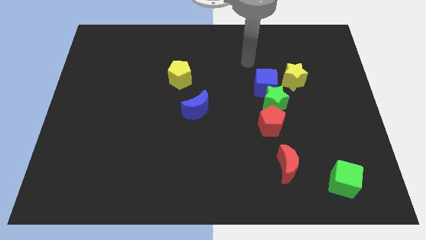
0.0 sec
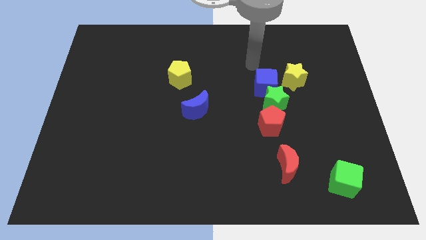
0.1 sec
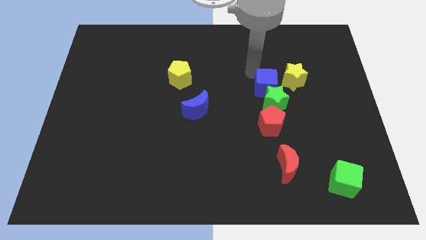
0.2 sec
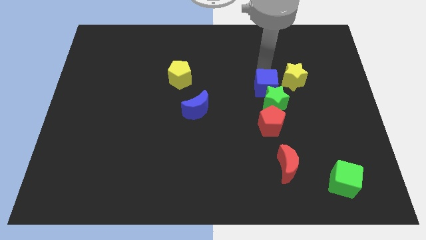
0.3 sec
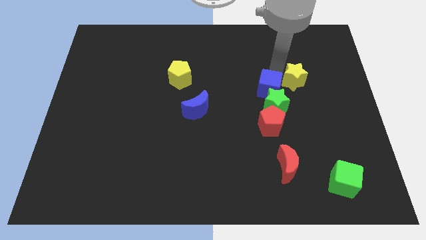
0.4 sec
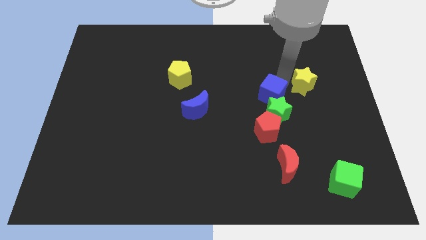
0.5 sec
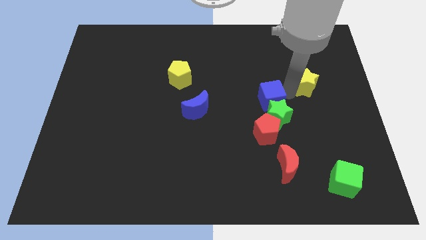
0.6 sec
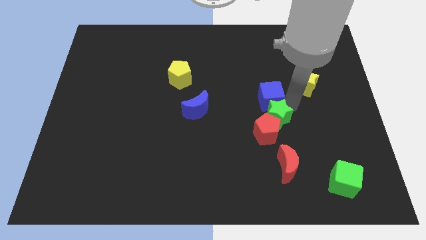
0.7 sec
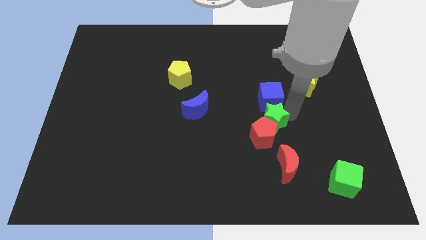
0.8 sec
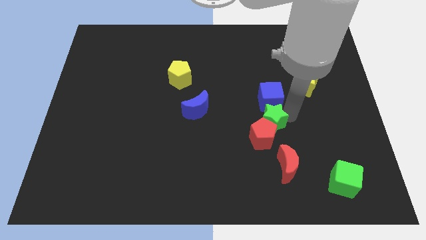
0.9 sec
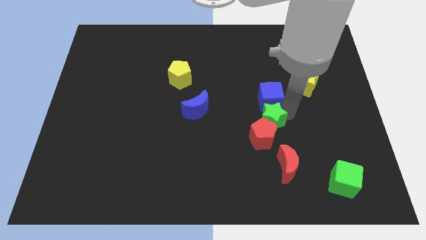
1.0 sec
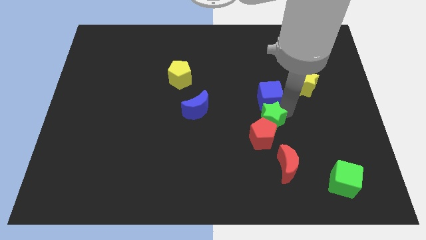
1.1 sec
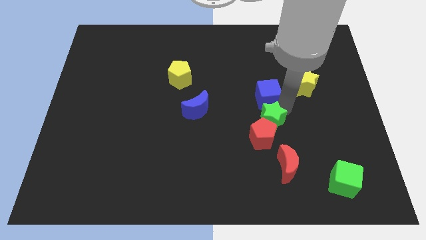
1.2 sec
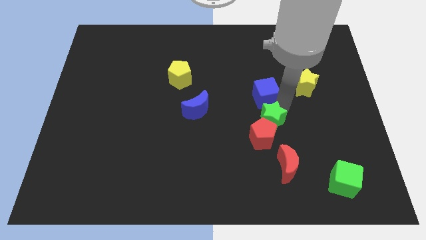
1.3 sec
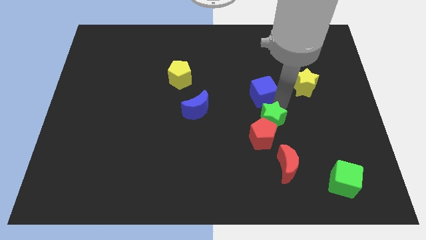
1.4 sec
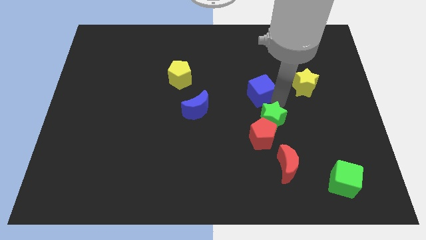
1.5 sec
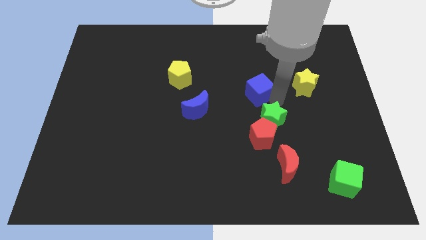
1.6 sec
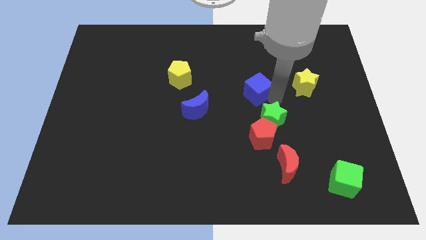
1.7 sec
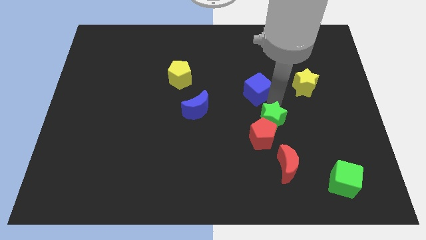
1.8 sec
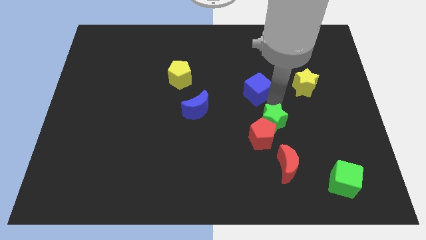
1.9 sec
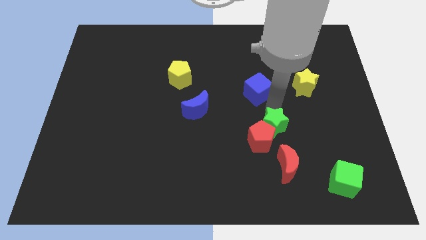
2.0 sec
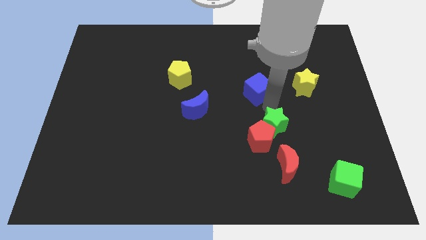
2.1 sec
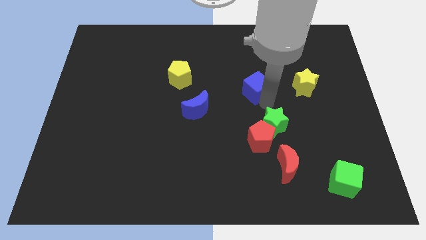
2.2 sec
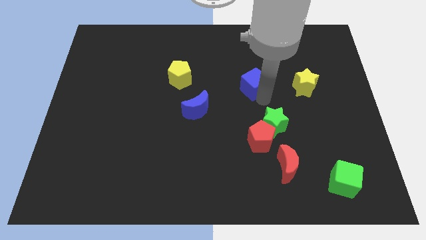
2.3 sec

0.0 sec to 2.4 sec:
move the blue cube away from the green star and yellow star

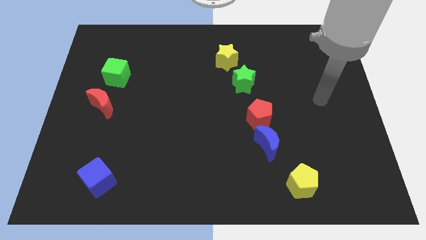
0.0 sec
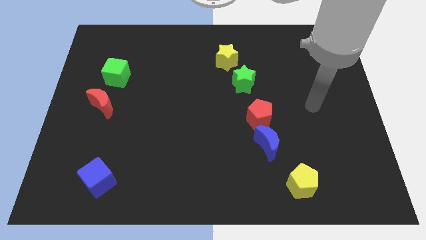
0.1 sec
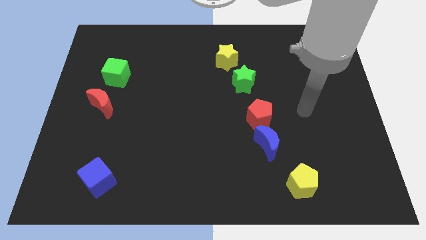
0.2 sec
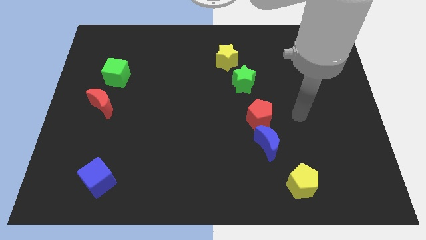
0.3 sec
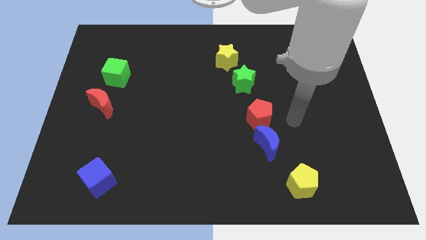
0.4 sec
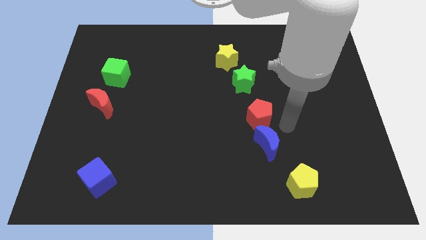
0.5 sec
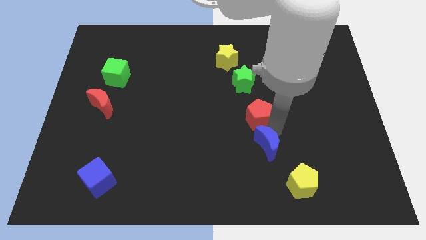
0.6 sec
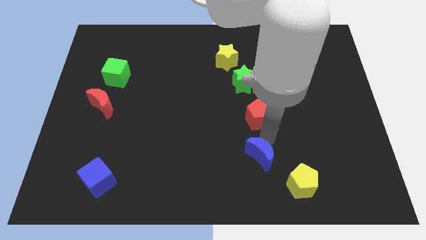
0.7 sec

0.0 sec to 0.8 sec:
move the red pentagon away from the blue moon

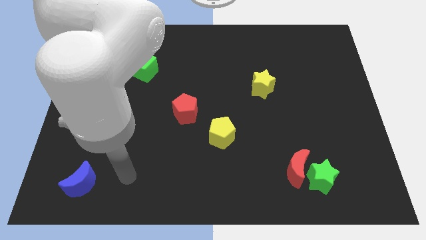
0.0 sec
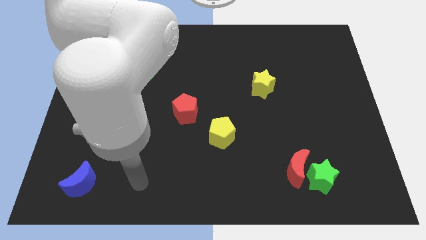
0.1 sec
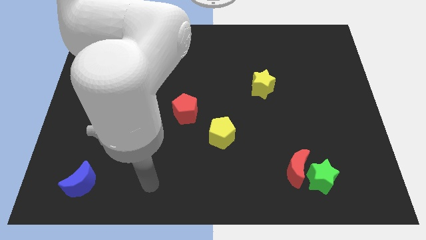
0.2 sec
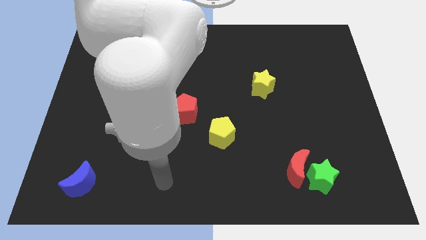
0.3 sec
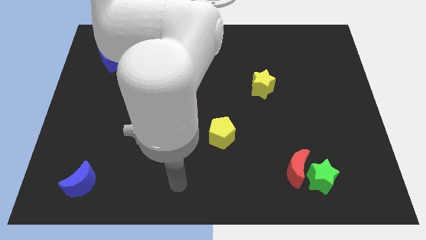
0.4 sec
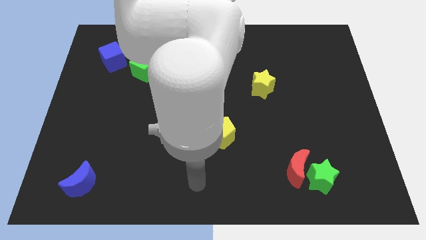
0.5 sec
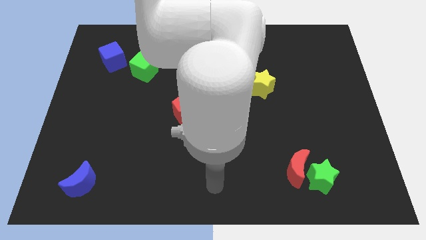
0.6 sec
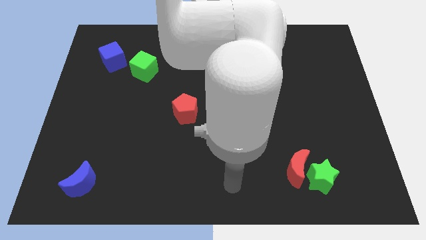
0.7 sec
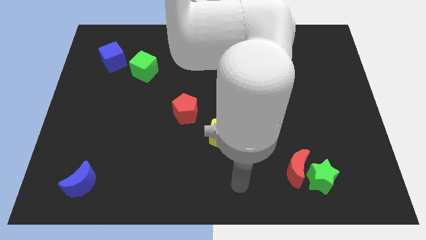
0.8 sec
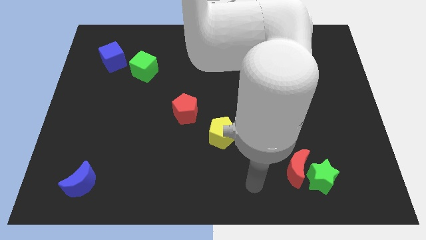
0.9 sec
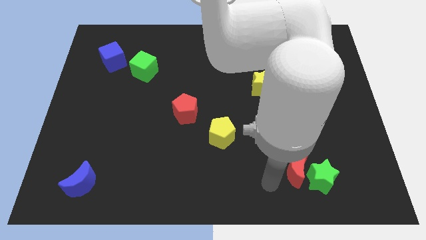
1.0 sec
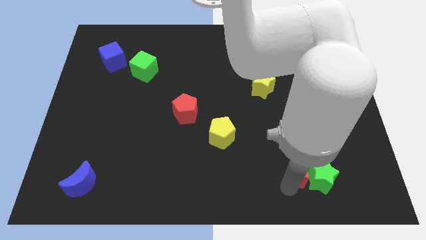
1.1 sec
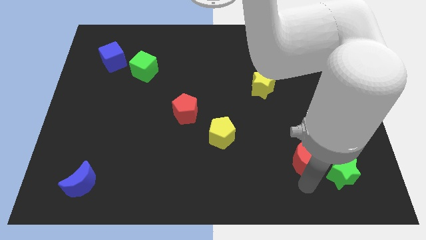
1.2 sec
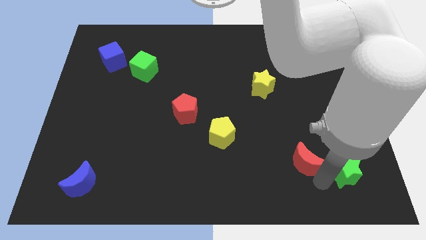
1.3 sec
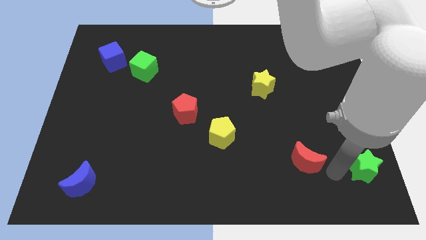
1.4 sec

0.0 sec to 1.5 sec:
move the red moon away from the green star

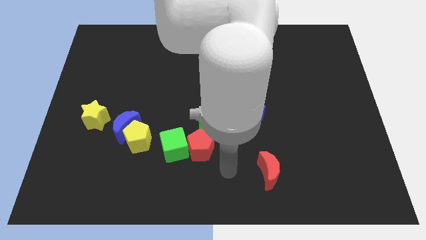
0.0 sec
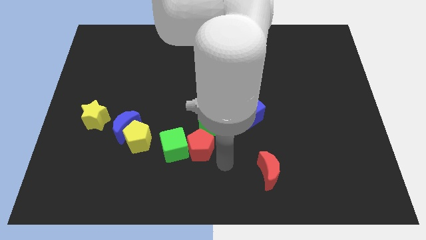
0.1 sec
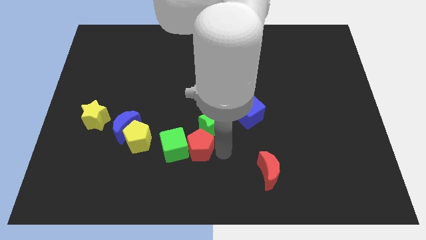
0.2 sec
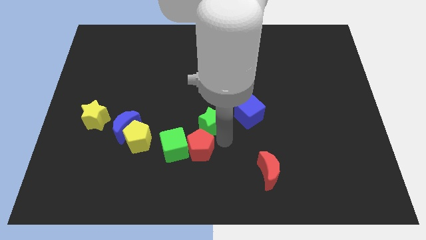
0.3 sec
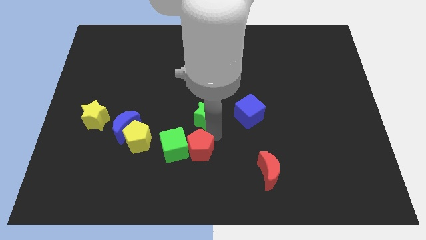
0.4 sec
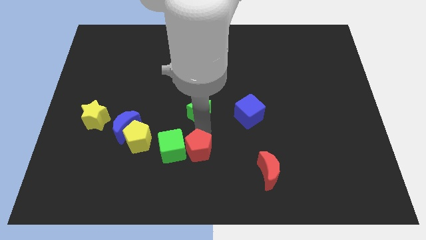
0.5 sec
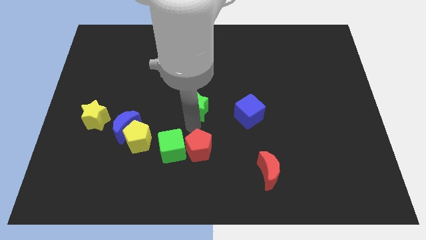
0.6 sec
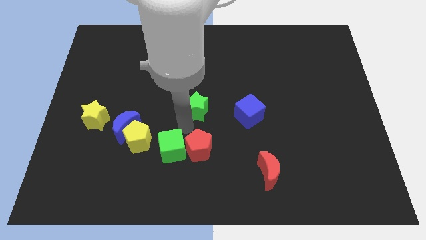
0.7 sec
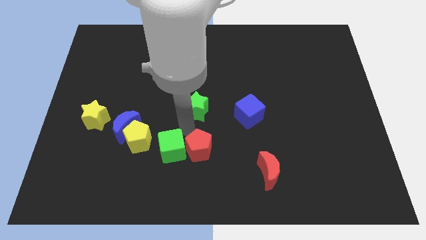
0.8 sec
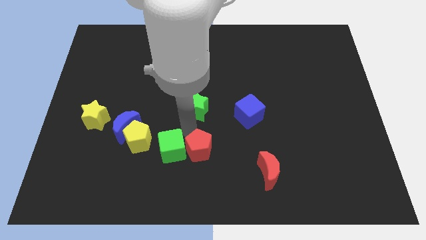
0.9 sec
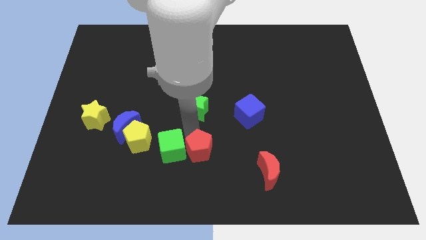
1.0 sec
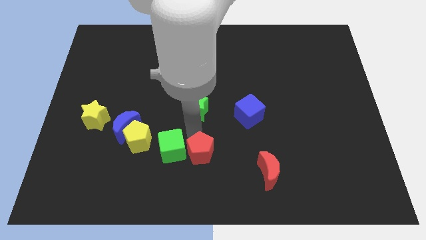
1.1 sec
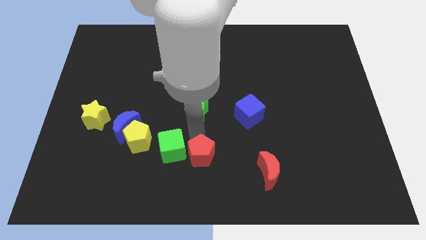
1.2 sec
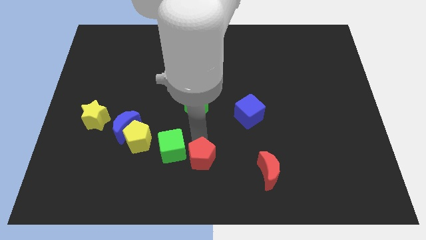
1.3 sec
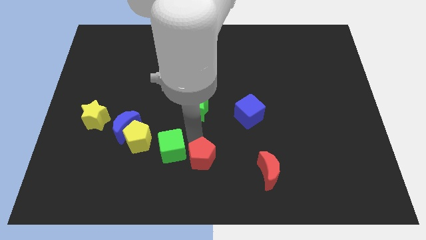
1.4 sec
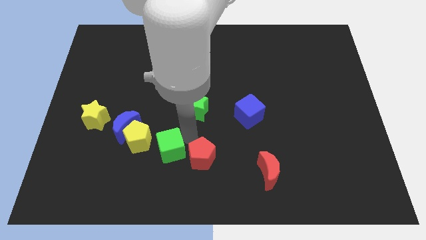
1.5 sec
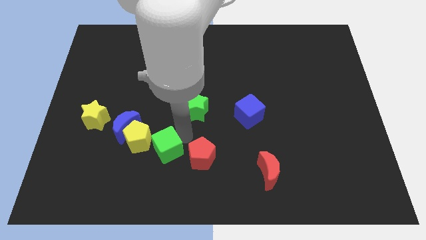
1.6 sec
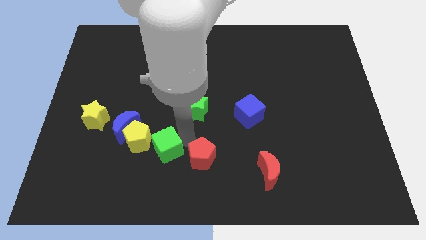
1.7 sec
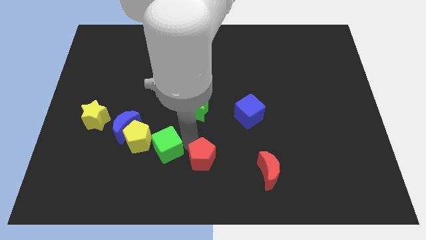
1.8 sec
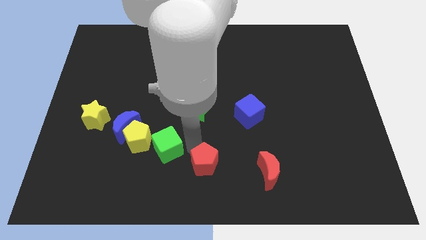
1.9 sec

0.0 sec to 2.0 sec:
pull the red pentagon apart from the green cube and green star

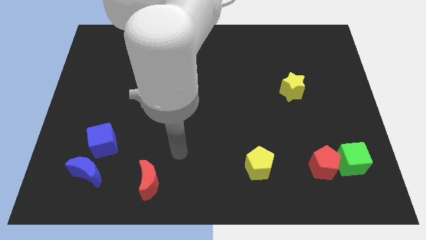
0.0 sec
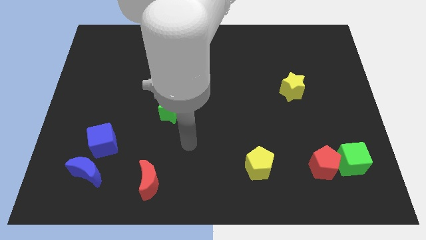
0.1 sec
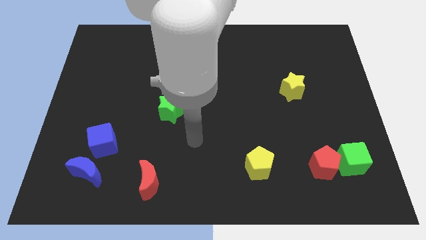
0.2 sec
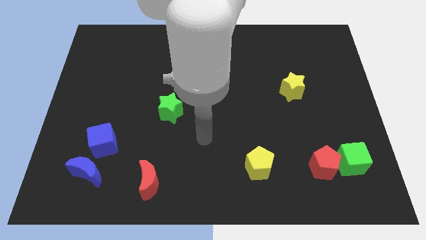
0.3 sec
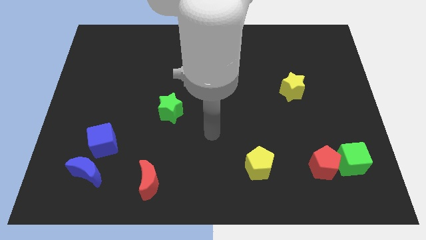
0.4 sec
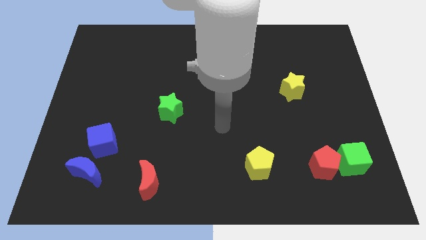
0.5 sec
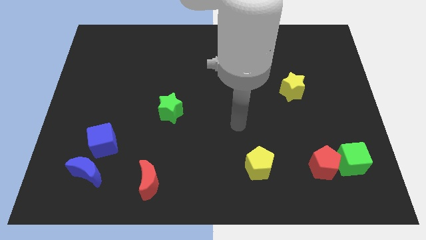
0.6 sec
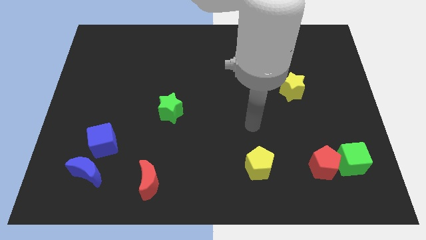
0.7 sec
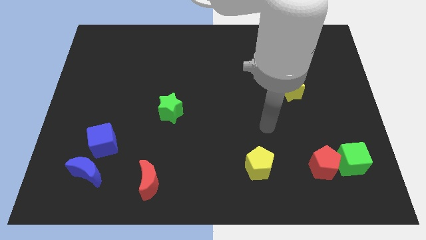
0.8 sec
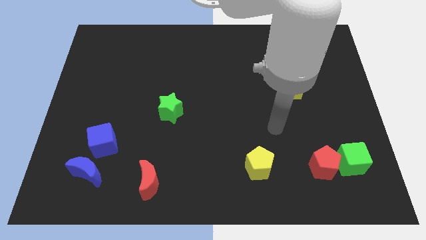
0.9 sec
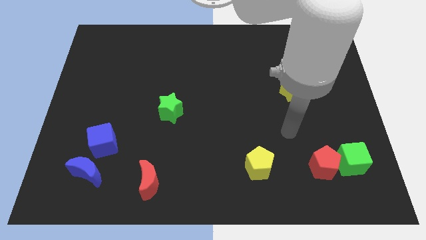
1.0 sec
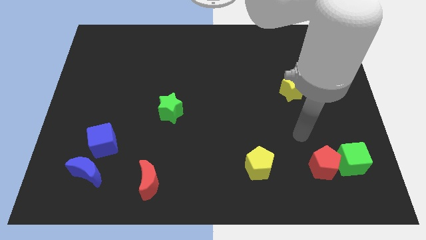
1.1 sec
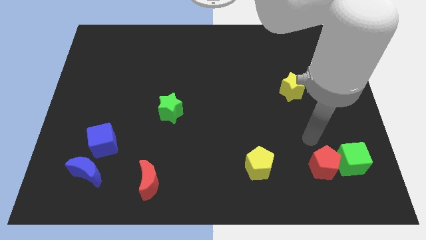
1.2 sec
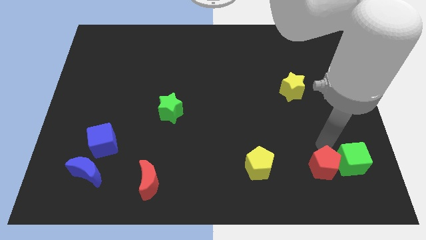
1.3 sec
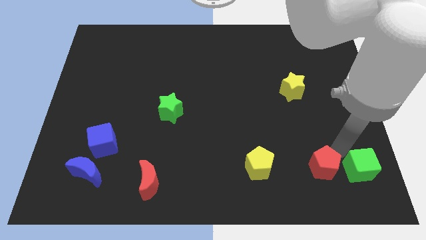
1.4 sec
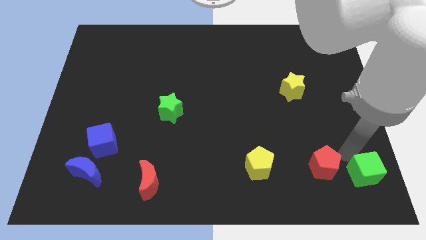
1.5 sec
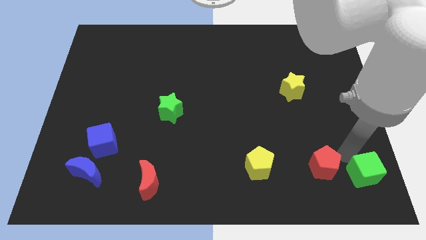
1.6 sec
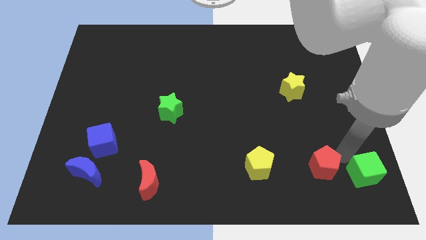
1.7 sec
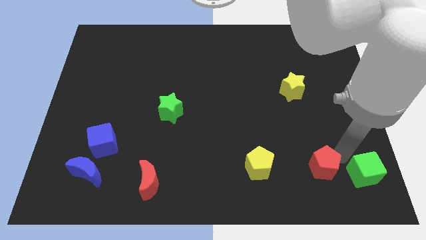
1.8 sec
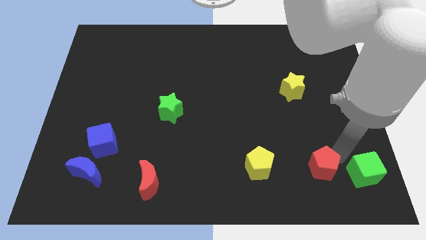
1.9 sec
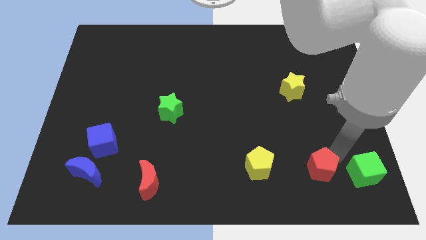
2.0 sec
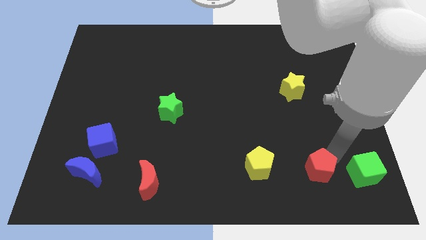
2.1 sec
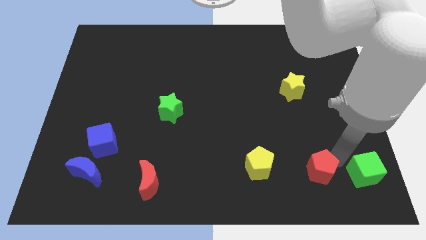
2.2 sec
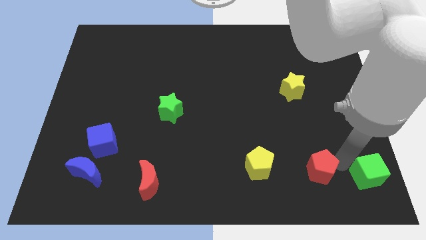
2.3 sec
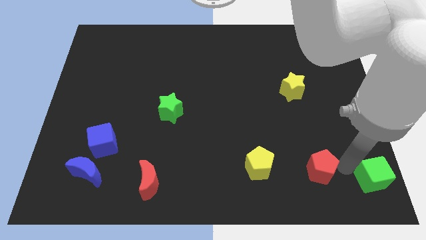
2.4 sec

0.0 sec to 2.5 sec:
separate the red pentagon from the green cube
